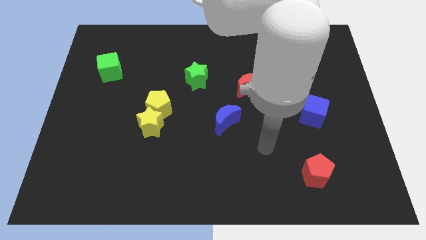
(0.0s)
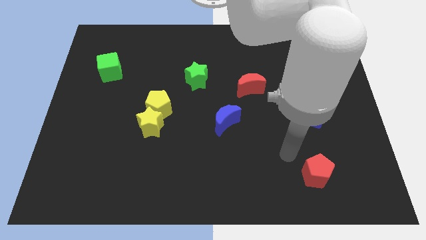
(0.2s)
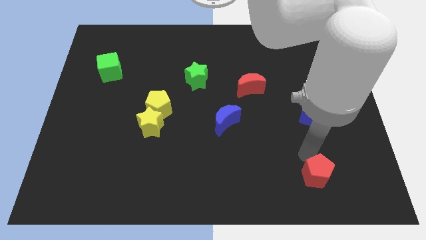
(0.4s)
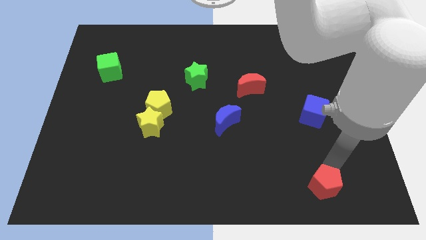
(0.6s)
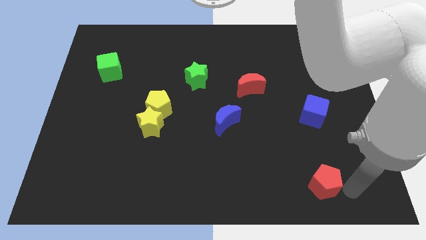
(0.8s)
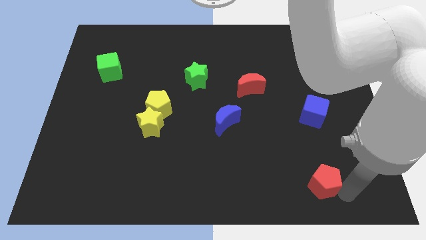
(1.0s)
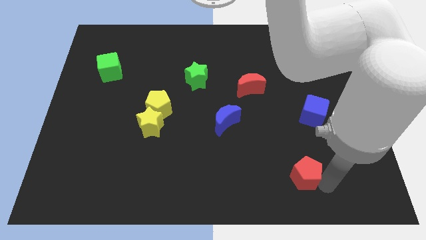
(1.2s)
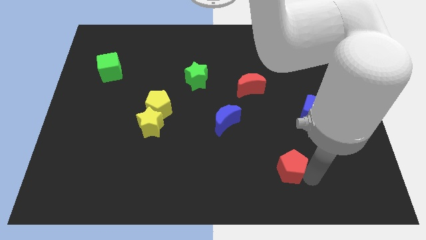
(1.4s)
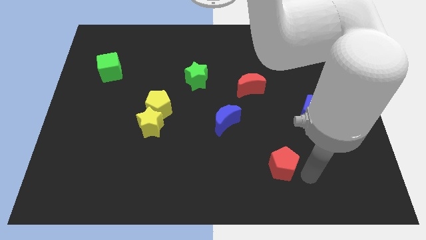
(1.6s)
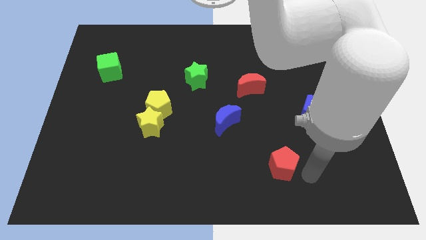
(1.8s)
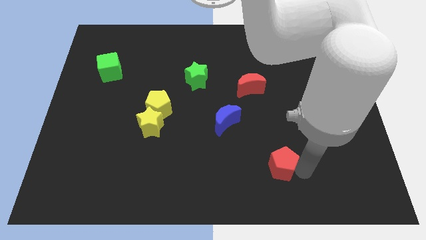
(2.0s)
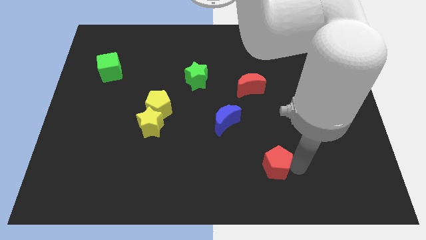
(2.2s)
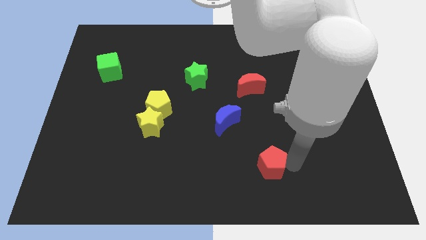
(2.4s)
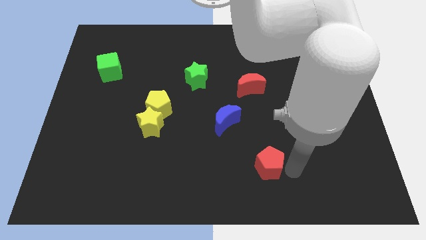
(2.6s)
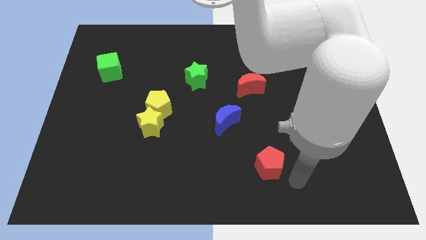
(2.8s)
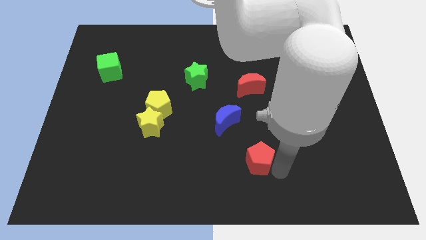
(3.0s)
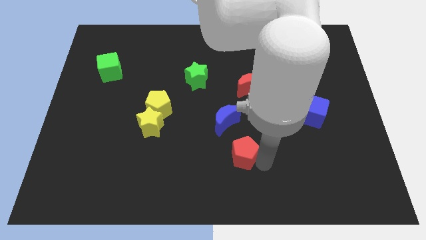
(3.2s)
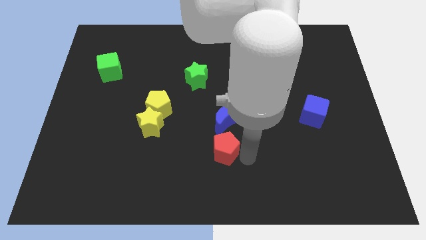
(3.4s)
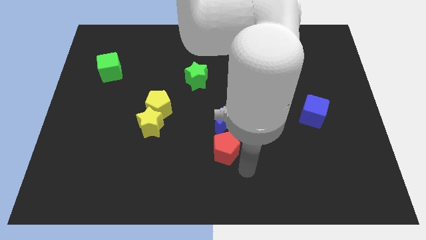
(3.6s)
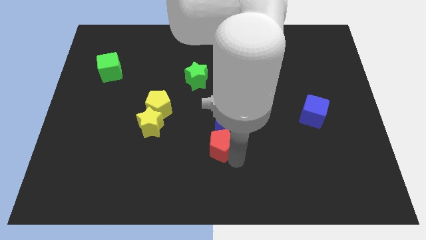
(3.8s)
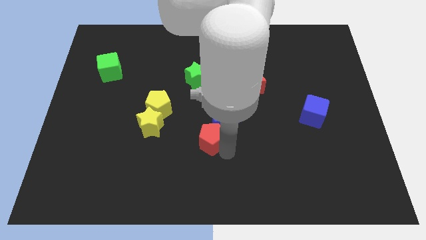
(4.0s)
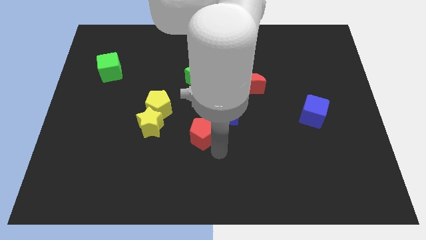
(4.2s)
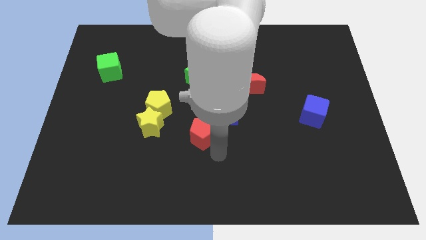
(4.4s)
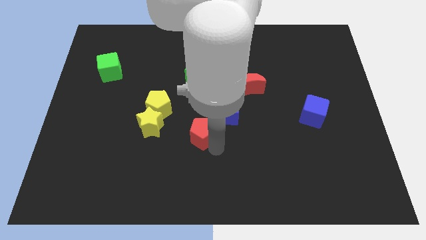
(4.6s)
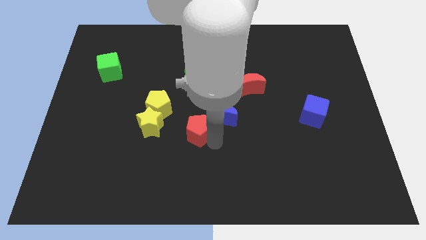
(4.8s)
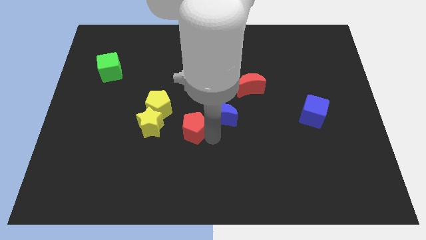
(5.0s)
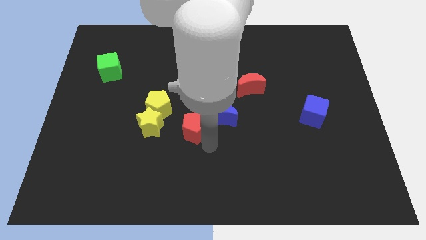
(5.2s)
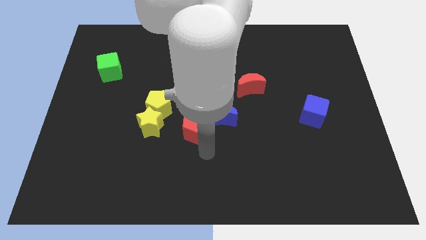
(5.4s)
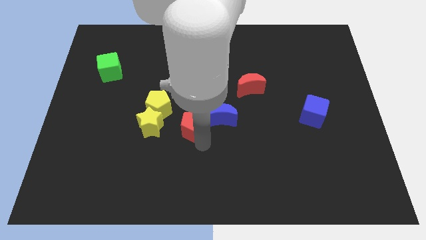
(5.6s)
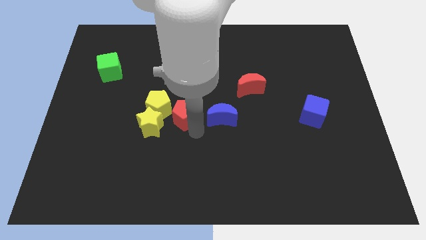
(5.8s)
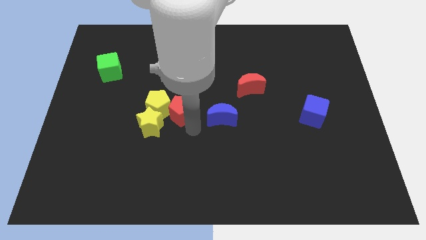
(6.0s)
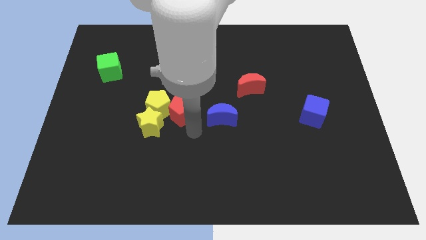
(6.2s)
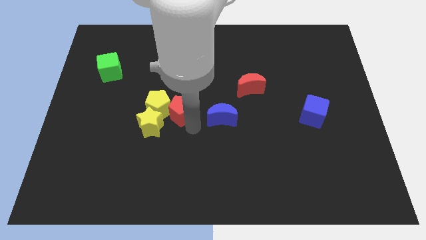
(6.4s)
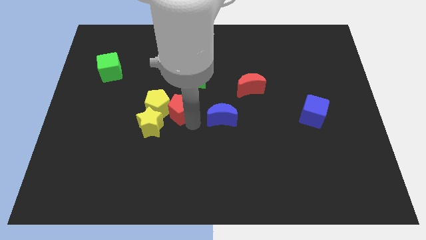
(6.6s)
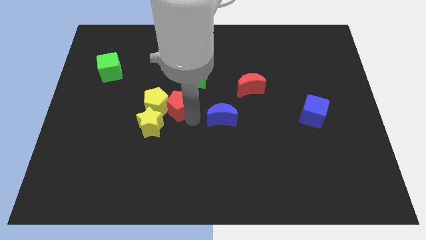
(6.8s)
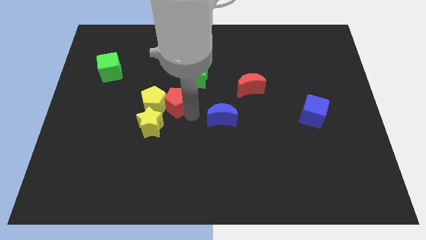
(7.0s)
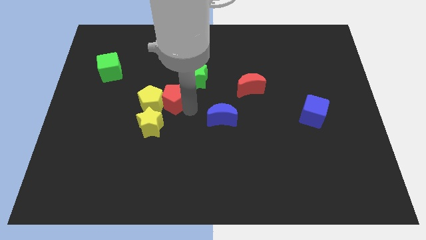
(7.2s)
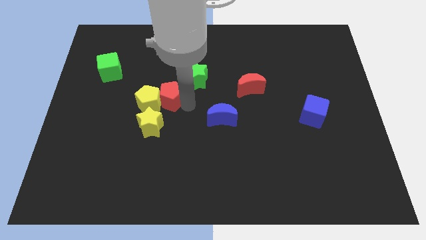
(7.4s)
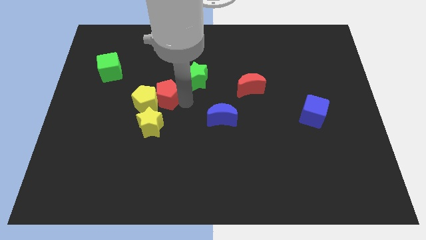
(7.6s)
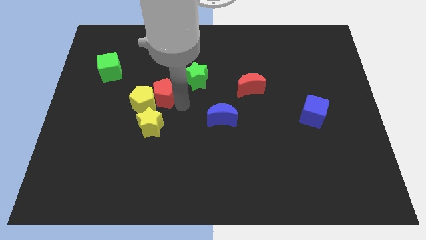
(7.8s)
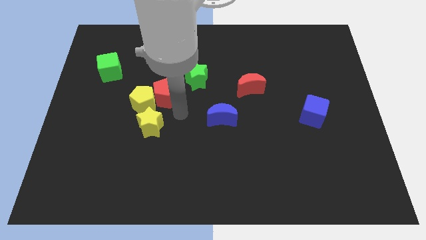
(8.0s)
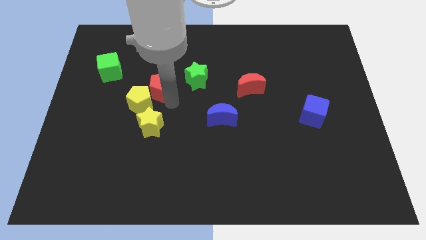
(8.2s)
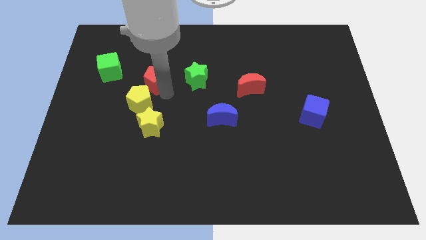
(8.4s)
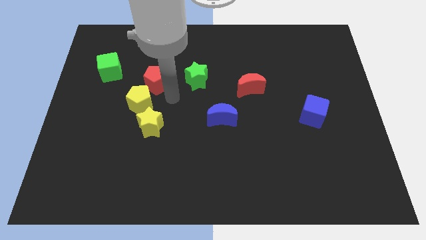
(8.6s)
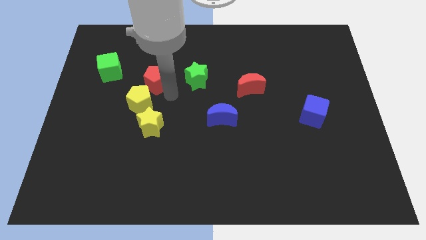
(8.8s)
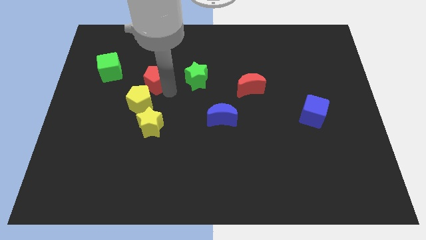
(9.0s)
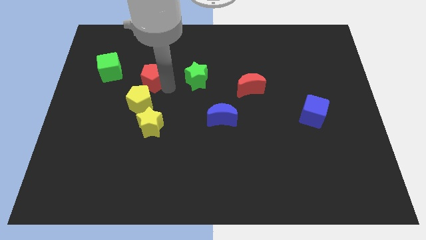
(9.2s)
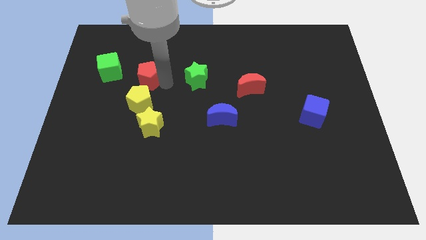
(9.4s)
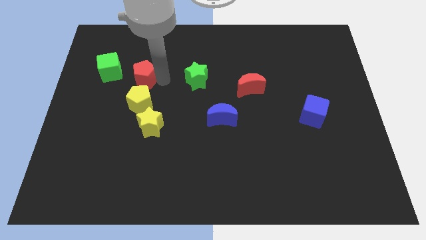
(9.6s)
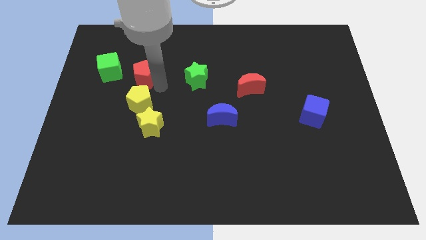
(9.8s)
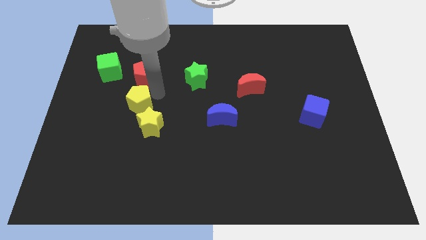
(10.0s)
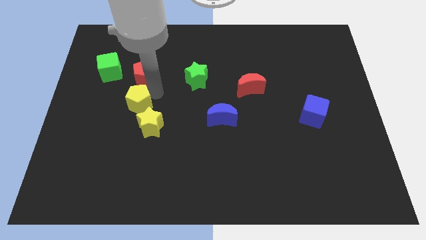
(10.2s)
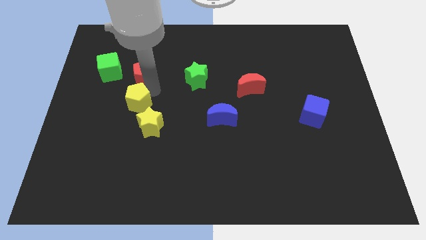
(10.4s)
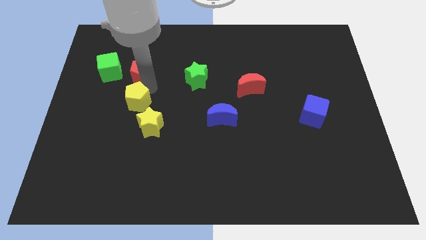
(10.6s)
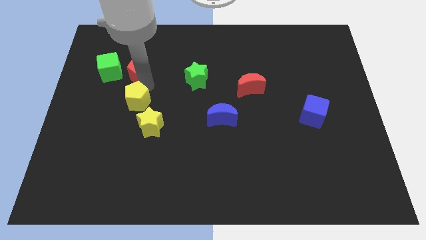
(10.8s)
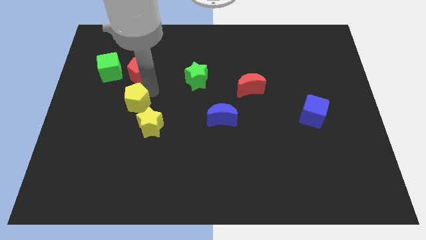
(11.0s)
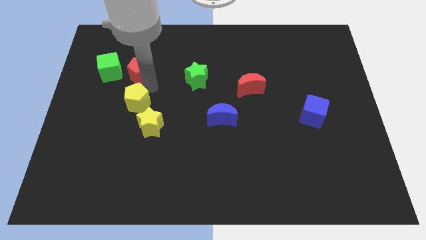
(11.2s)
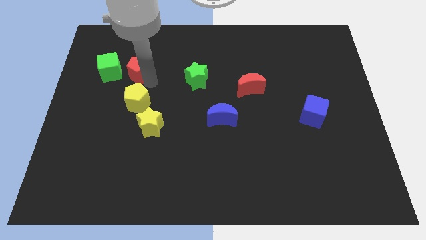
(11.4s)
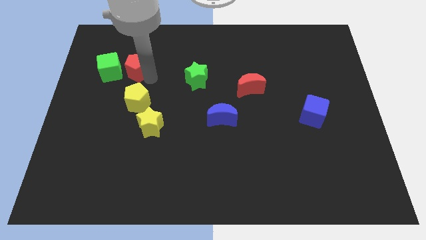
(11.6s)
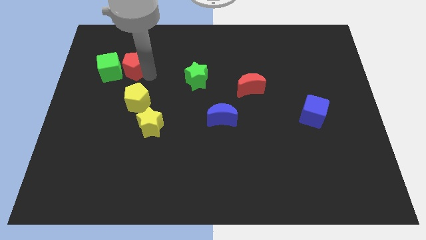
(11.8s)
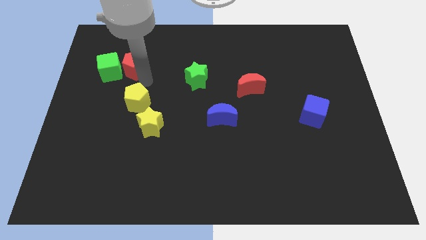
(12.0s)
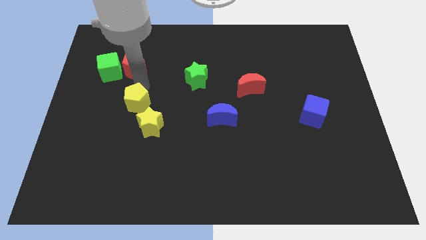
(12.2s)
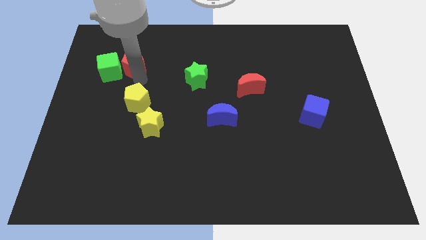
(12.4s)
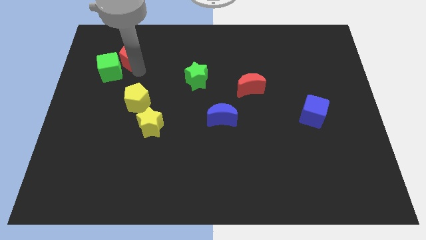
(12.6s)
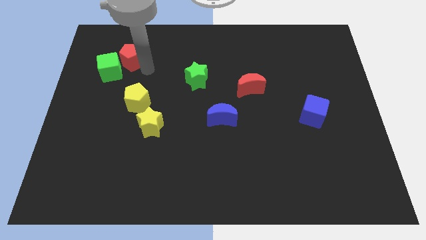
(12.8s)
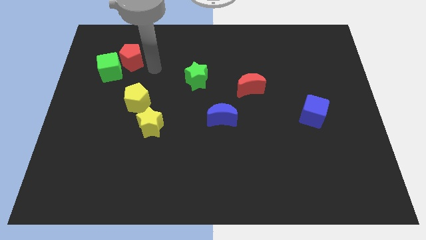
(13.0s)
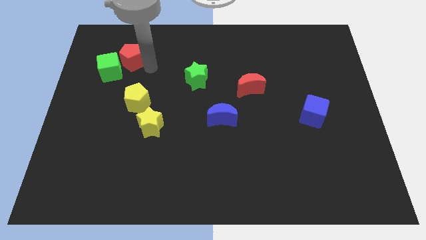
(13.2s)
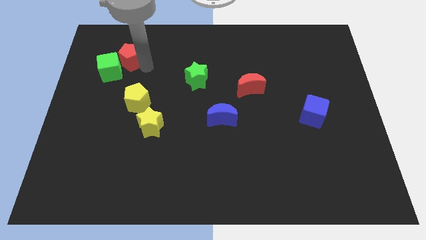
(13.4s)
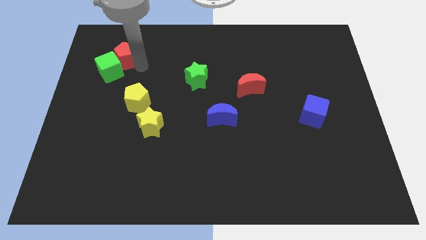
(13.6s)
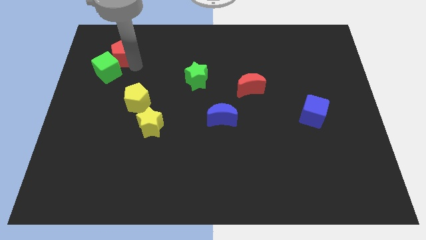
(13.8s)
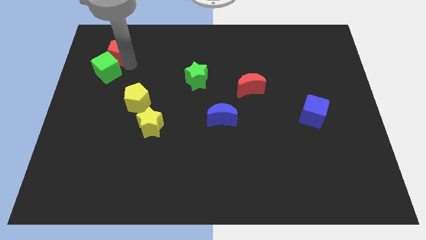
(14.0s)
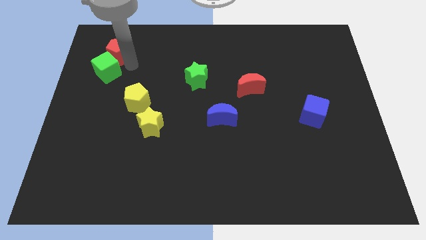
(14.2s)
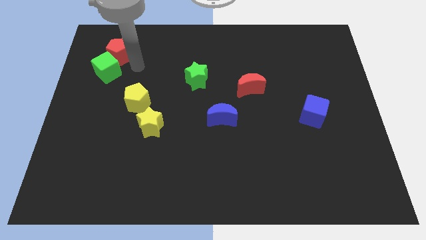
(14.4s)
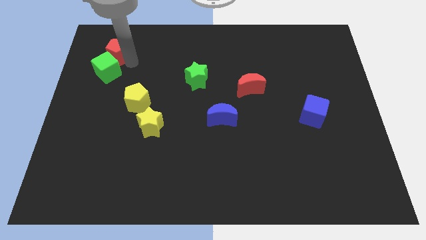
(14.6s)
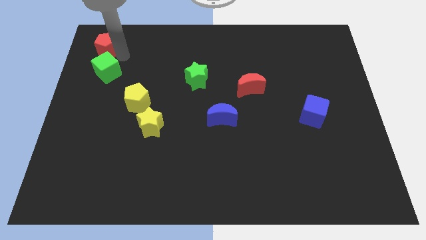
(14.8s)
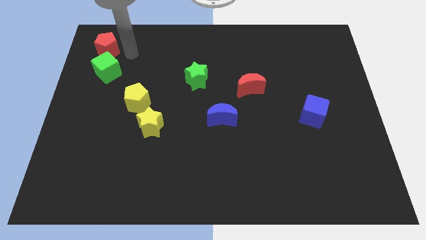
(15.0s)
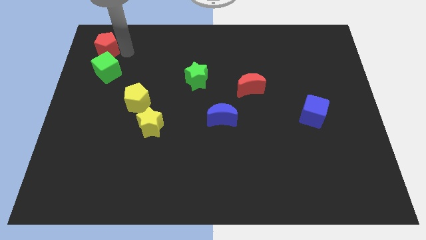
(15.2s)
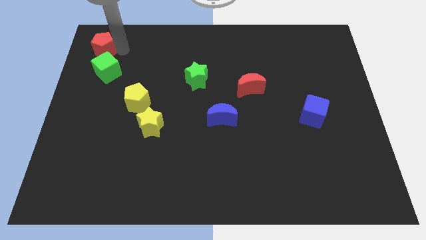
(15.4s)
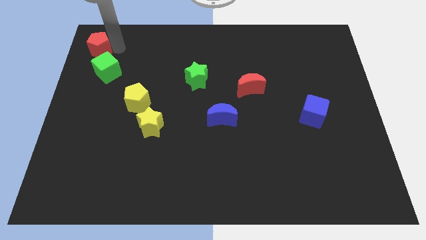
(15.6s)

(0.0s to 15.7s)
slide the red pentagon to the top left
